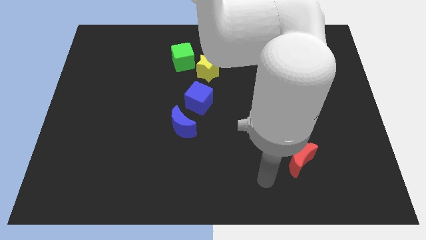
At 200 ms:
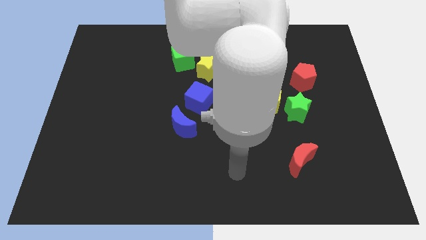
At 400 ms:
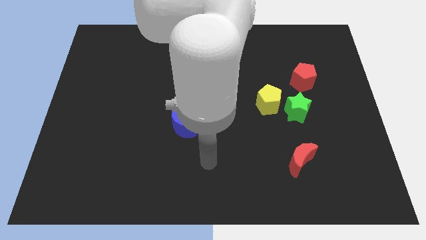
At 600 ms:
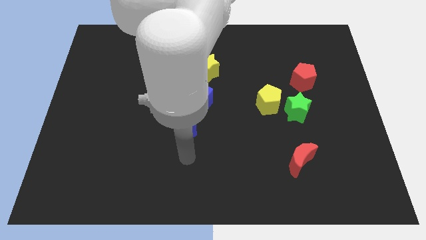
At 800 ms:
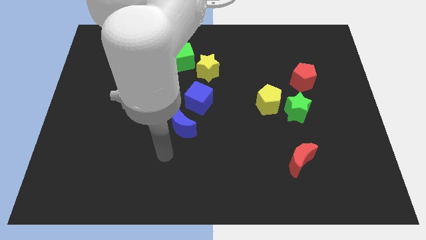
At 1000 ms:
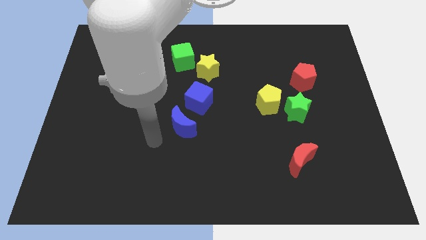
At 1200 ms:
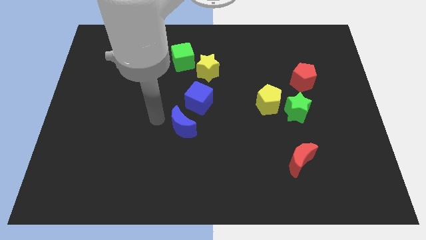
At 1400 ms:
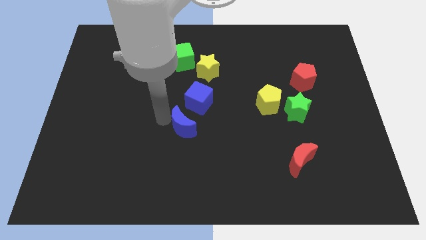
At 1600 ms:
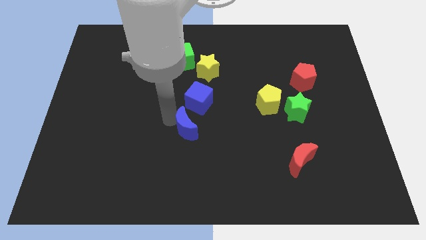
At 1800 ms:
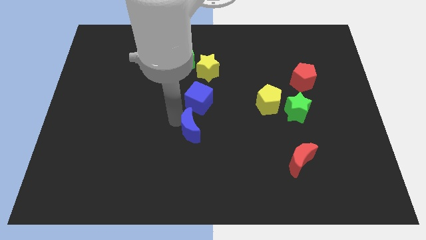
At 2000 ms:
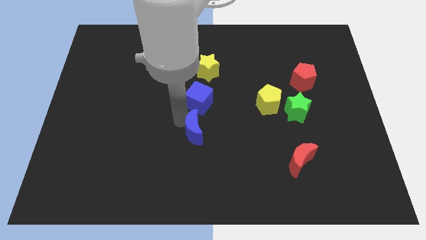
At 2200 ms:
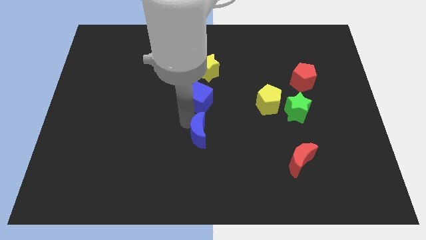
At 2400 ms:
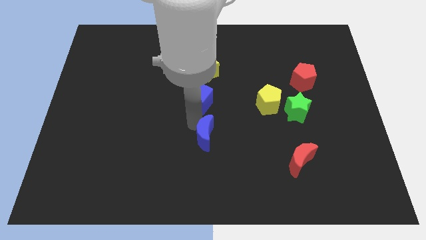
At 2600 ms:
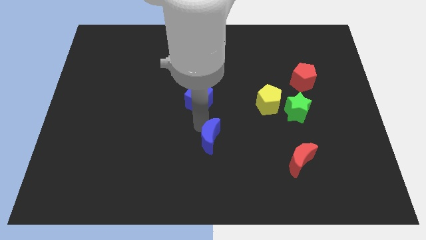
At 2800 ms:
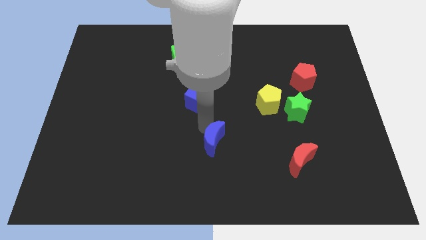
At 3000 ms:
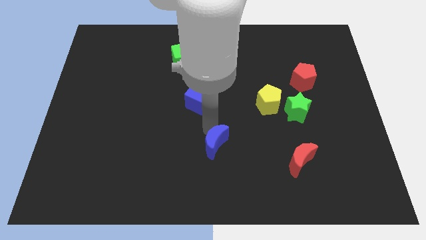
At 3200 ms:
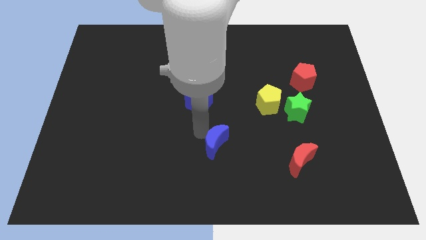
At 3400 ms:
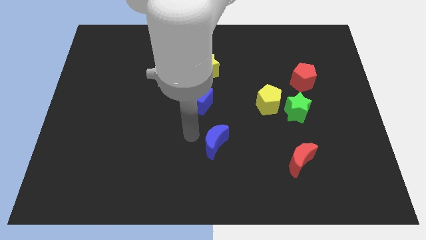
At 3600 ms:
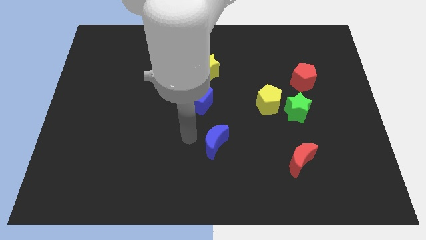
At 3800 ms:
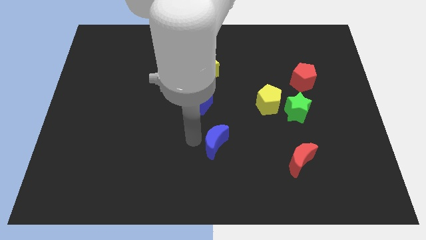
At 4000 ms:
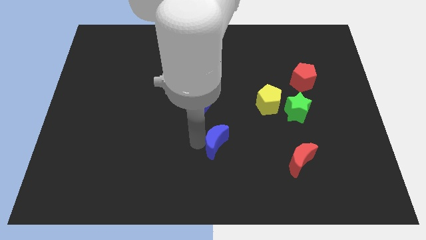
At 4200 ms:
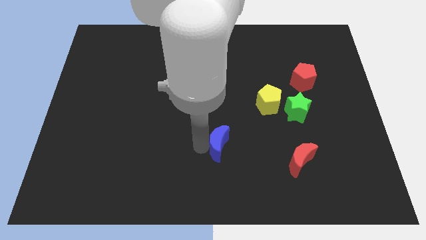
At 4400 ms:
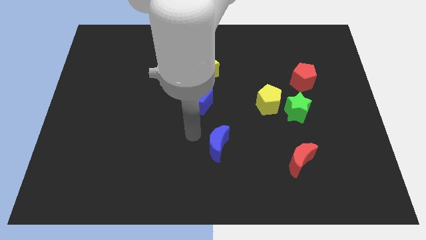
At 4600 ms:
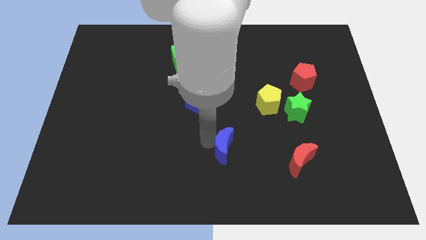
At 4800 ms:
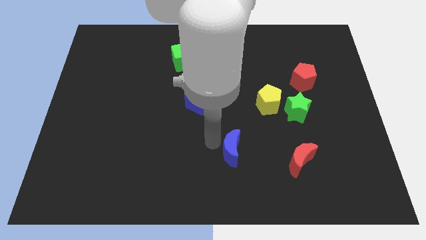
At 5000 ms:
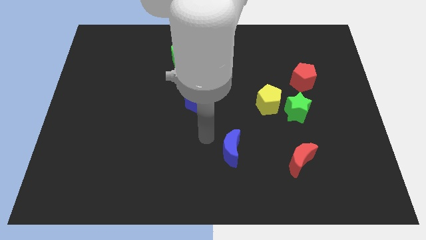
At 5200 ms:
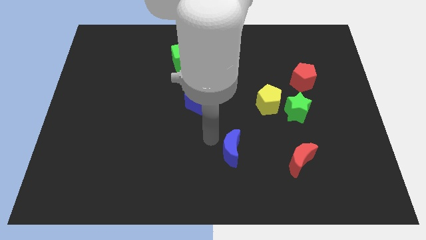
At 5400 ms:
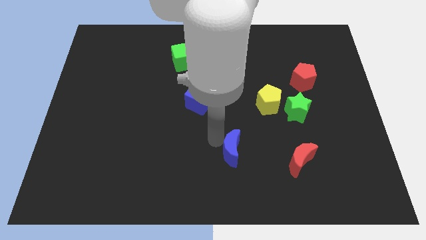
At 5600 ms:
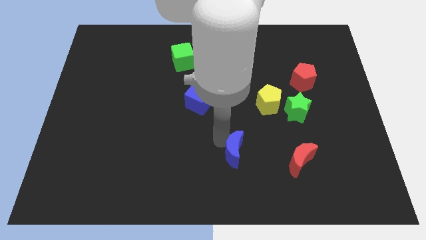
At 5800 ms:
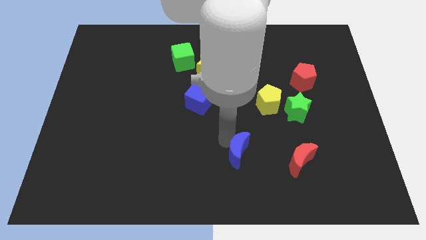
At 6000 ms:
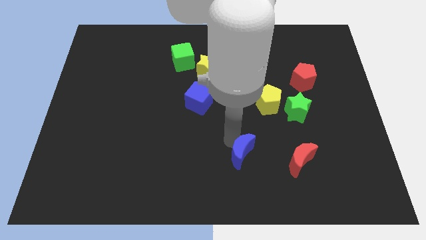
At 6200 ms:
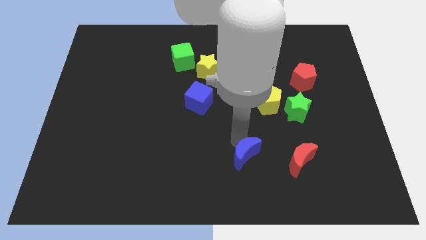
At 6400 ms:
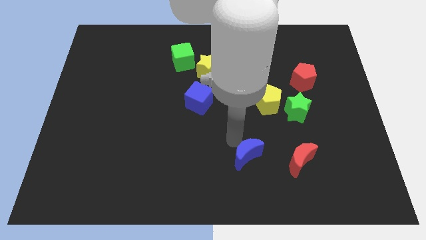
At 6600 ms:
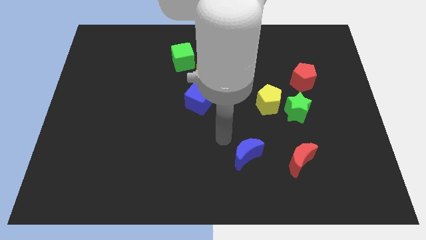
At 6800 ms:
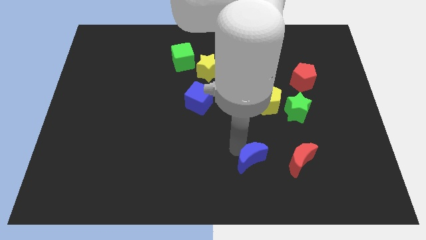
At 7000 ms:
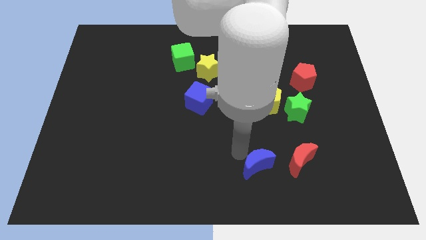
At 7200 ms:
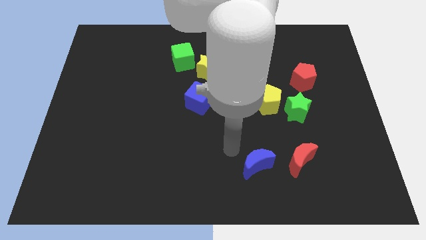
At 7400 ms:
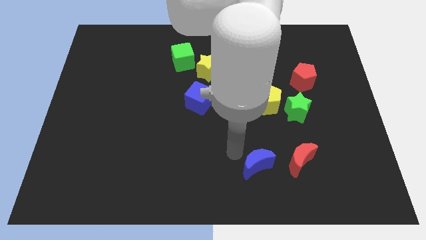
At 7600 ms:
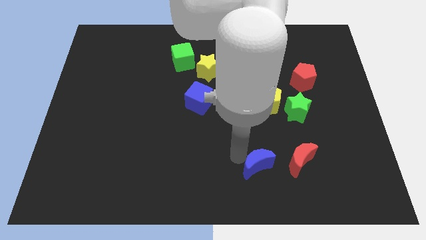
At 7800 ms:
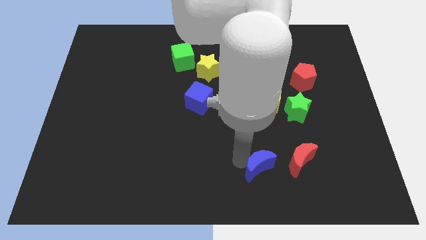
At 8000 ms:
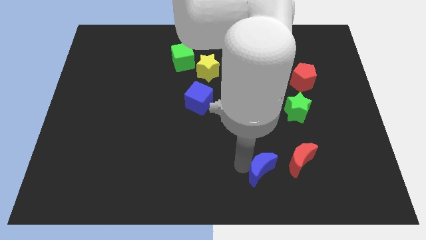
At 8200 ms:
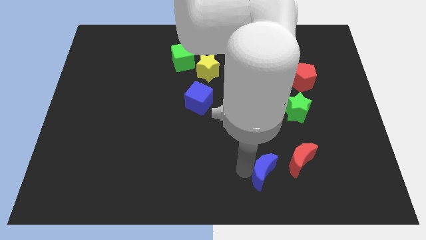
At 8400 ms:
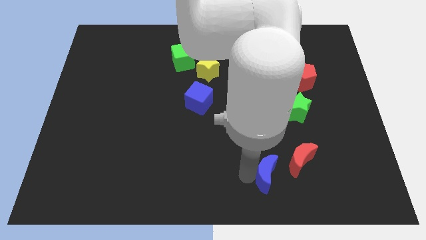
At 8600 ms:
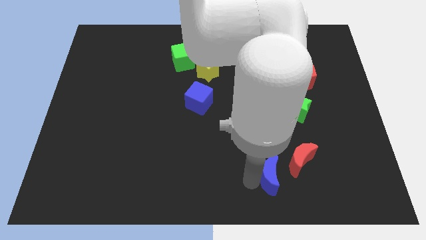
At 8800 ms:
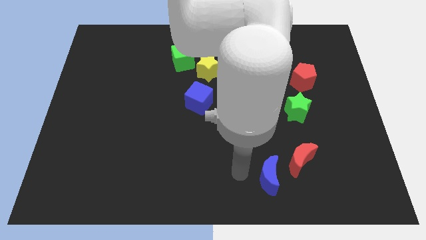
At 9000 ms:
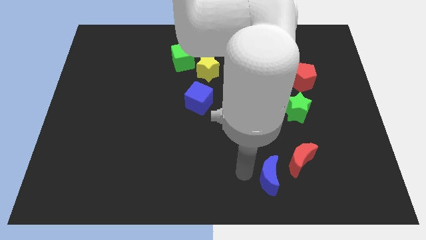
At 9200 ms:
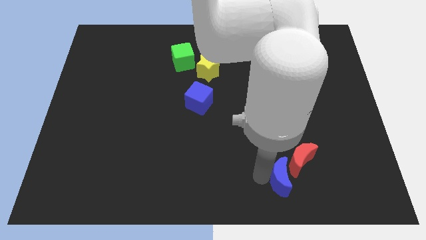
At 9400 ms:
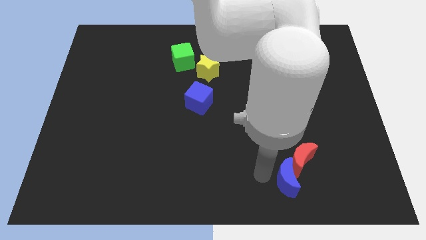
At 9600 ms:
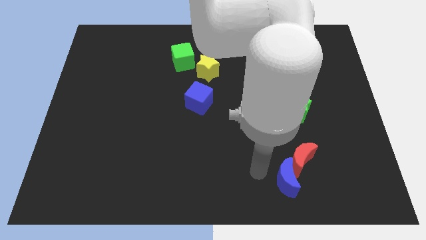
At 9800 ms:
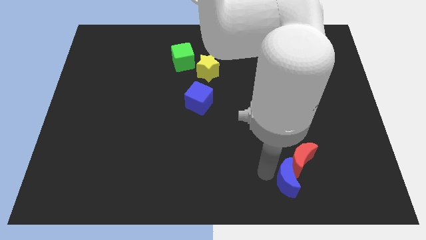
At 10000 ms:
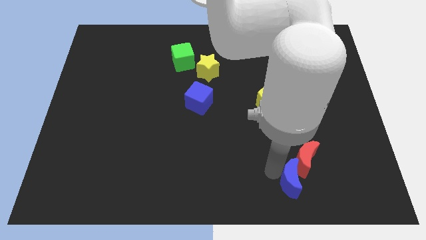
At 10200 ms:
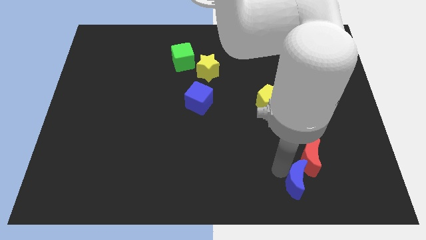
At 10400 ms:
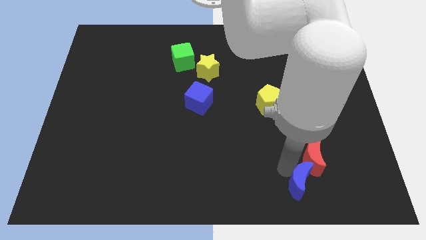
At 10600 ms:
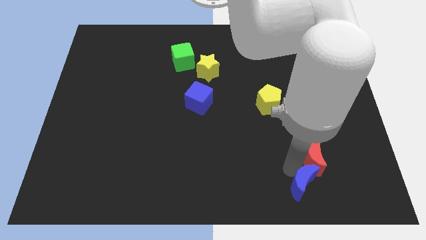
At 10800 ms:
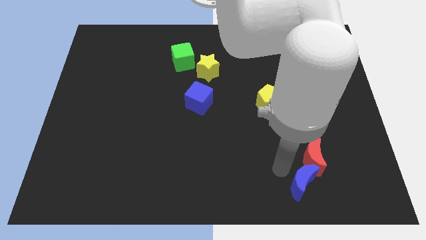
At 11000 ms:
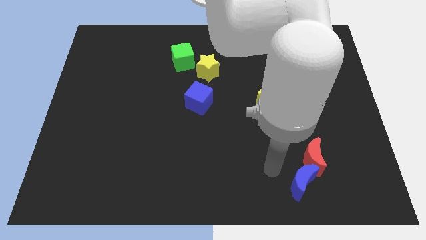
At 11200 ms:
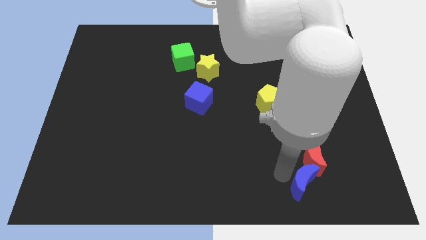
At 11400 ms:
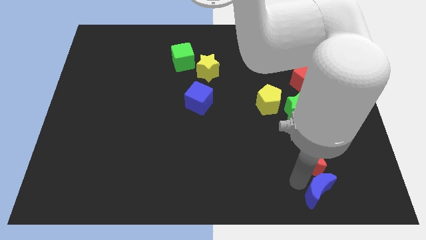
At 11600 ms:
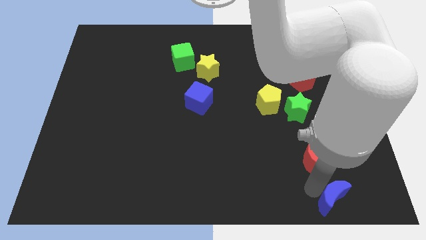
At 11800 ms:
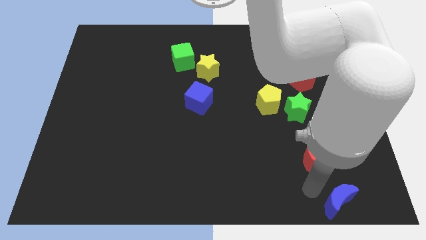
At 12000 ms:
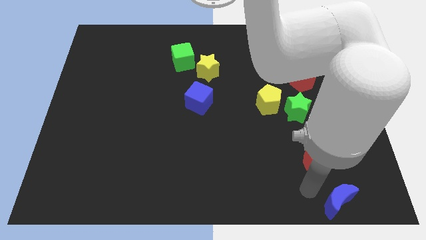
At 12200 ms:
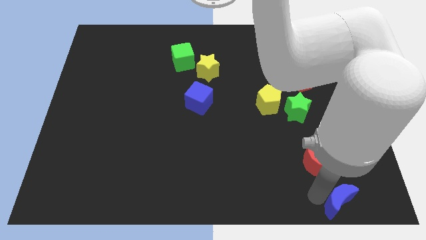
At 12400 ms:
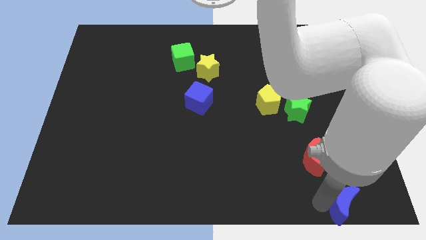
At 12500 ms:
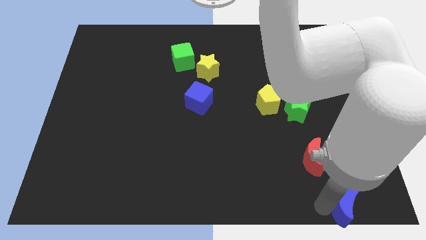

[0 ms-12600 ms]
slide the blue moon to the bottom right

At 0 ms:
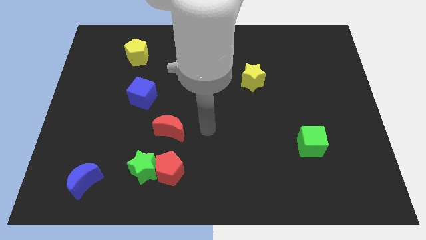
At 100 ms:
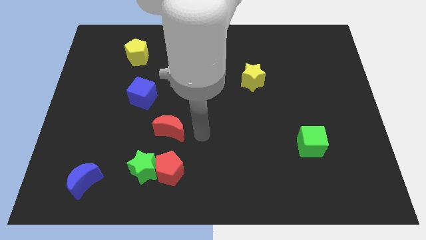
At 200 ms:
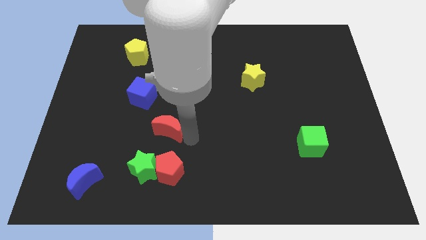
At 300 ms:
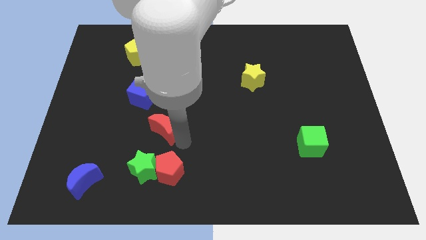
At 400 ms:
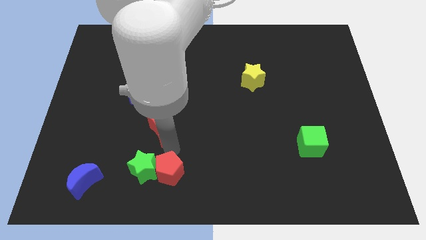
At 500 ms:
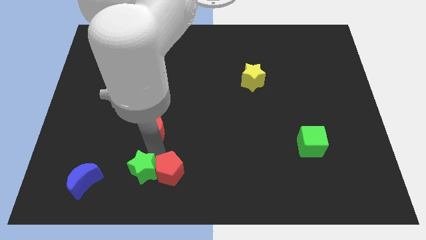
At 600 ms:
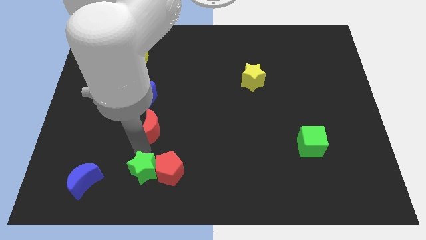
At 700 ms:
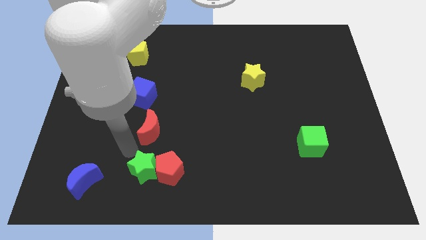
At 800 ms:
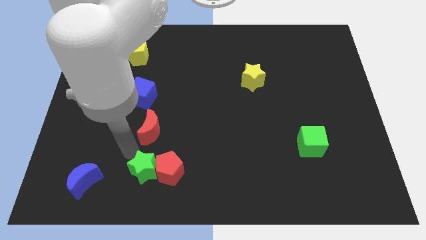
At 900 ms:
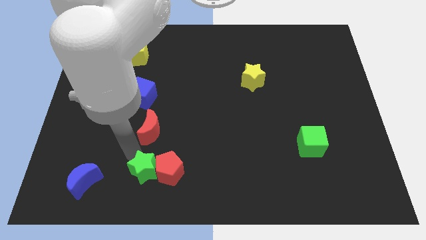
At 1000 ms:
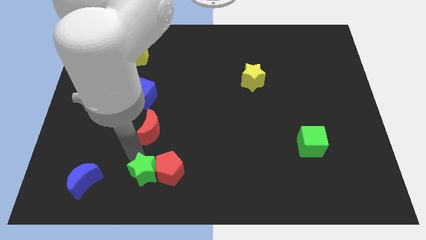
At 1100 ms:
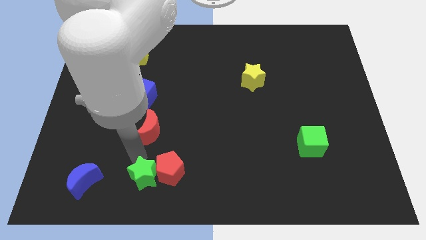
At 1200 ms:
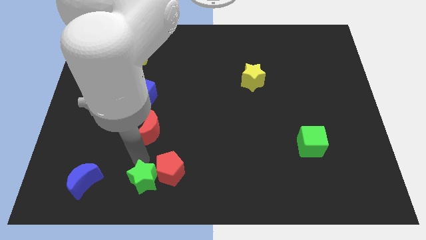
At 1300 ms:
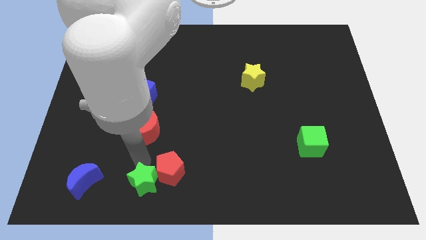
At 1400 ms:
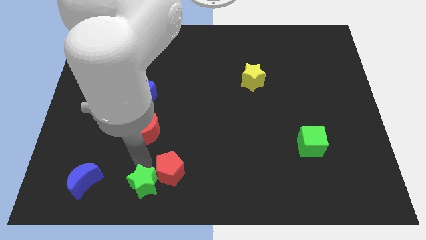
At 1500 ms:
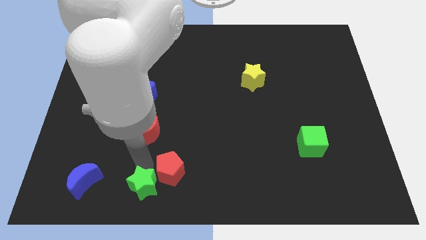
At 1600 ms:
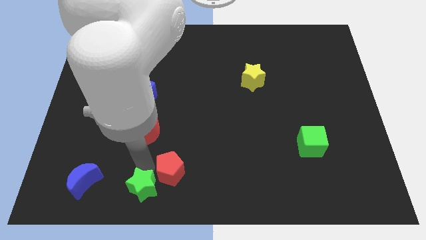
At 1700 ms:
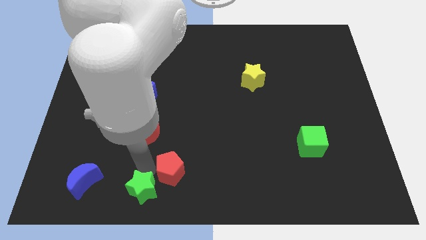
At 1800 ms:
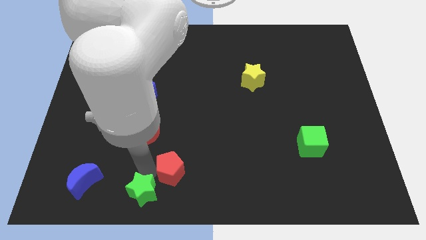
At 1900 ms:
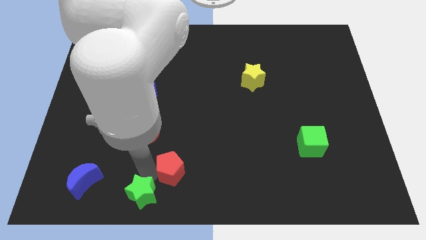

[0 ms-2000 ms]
slide the green star to the bottom side
